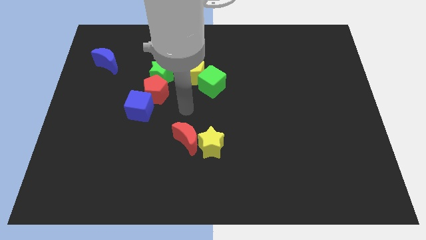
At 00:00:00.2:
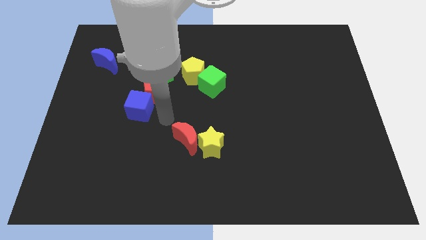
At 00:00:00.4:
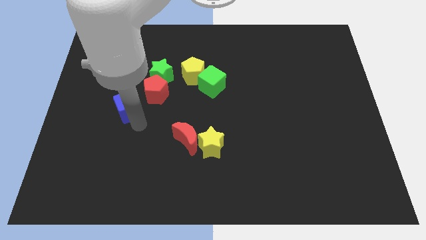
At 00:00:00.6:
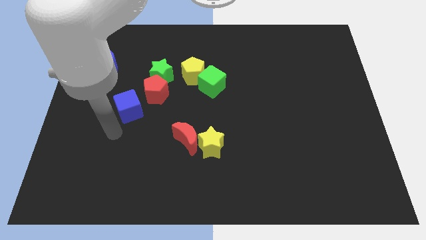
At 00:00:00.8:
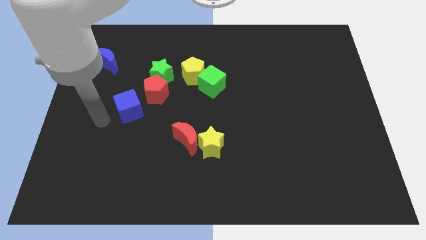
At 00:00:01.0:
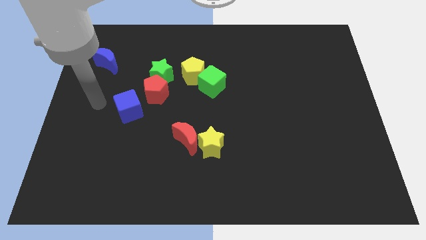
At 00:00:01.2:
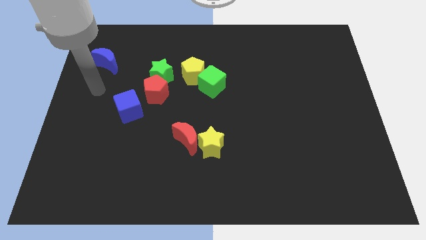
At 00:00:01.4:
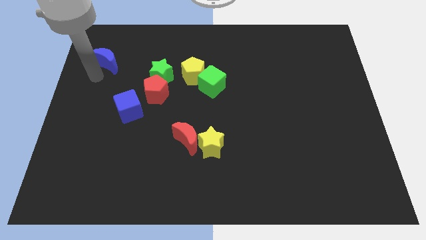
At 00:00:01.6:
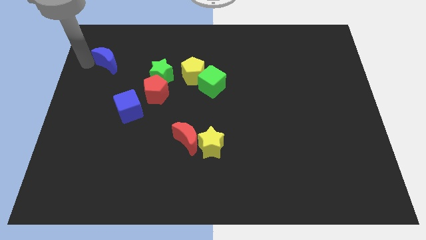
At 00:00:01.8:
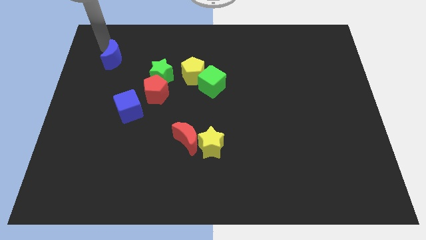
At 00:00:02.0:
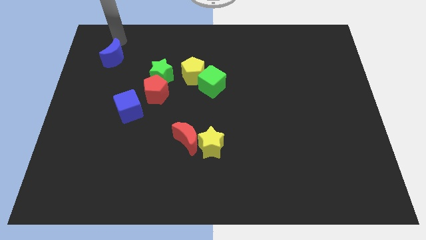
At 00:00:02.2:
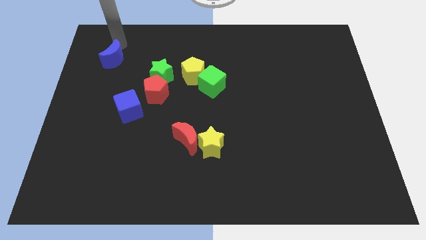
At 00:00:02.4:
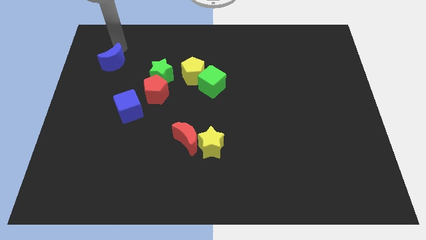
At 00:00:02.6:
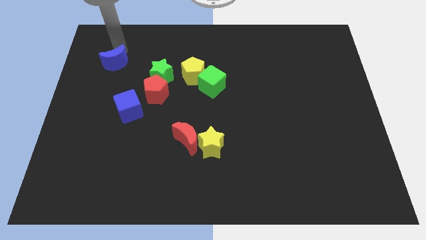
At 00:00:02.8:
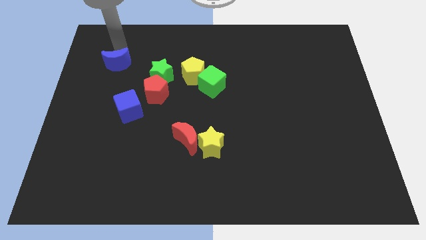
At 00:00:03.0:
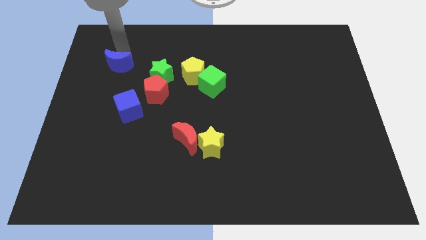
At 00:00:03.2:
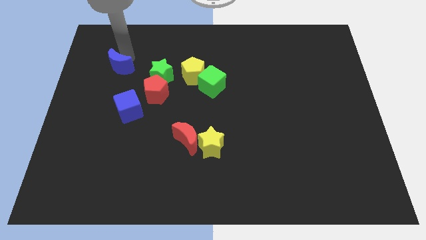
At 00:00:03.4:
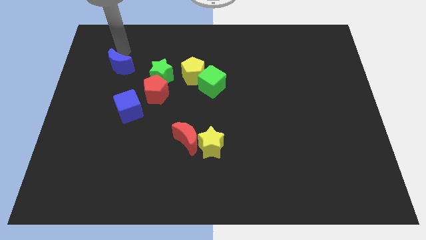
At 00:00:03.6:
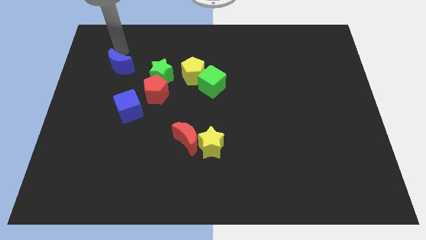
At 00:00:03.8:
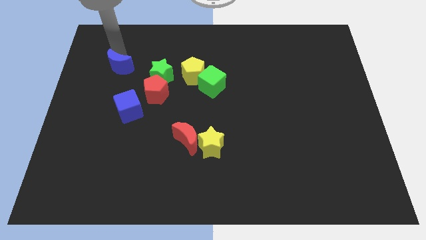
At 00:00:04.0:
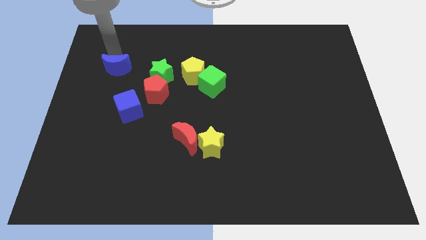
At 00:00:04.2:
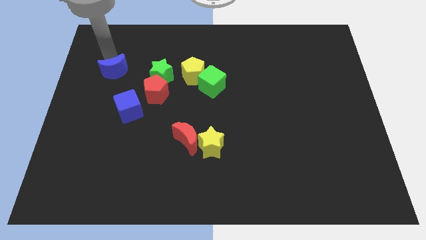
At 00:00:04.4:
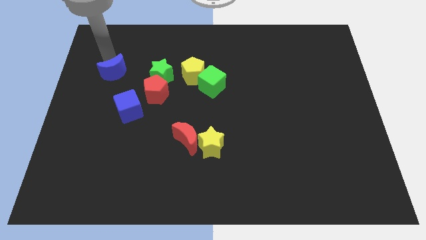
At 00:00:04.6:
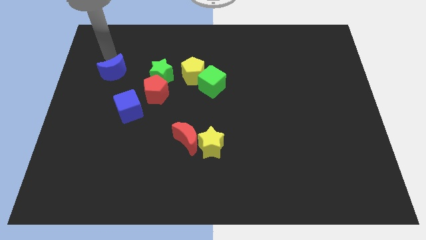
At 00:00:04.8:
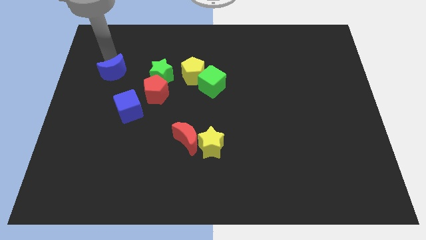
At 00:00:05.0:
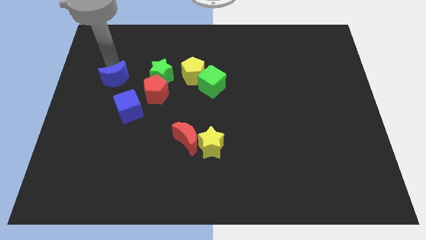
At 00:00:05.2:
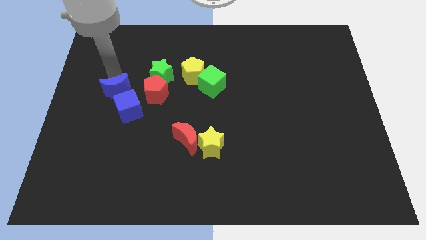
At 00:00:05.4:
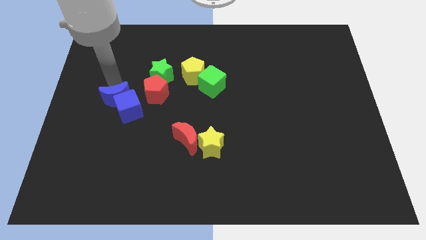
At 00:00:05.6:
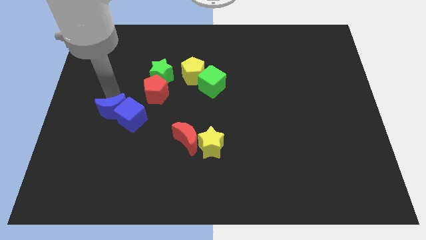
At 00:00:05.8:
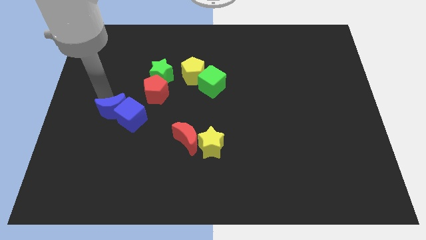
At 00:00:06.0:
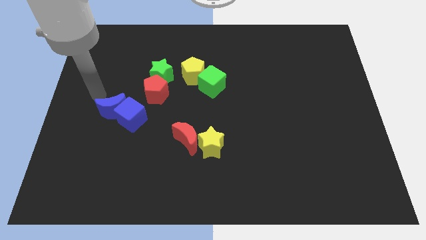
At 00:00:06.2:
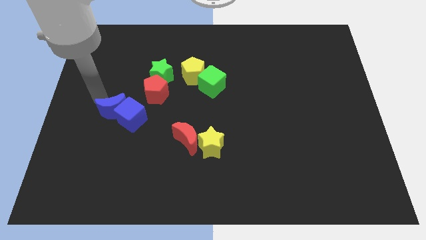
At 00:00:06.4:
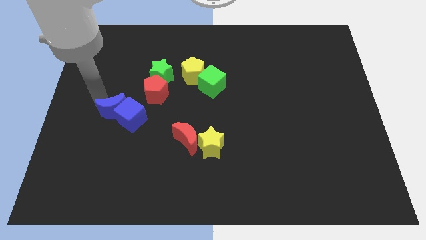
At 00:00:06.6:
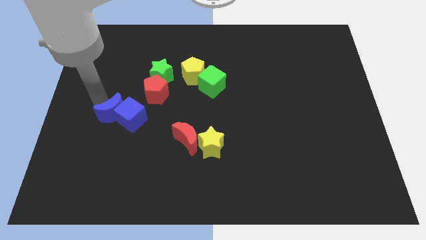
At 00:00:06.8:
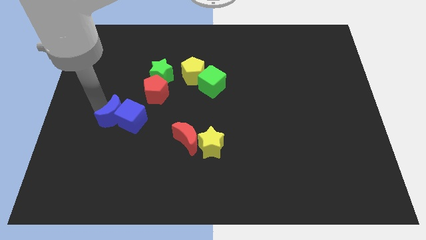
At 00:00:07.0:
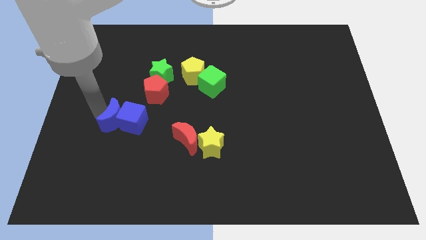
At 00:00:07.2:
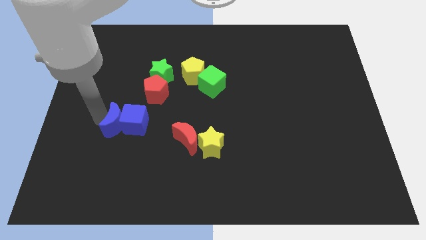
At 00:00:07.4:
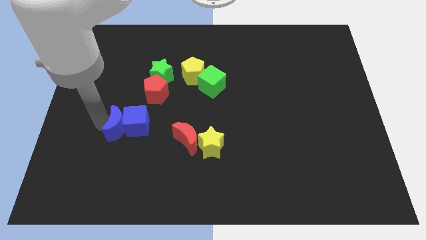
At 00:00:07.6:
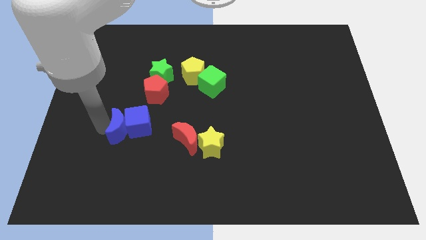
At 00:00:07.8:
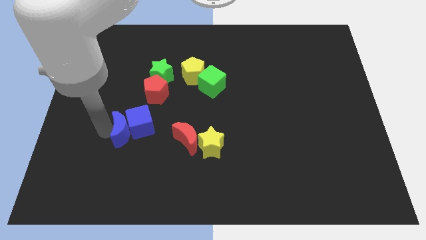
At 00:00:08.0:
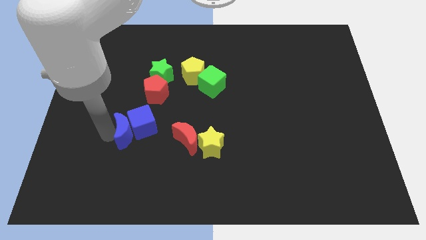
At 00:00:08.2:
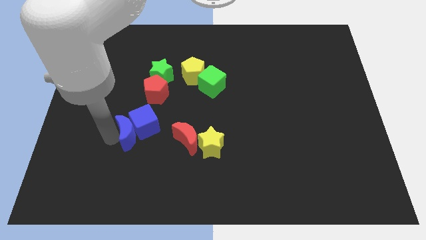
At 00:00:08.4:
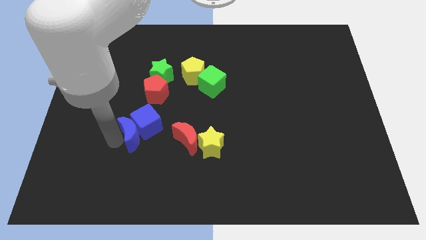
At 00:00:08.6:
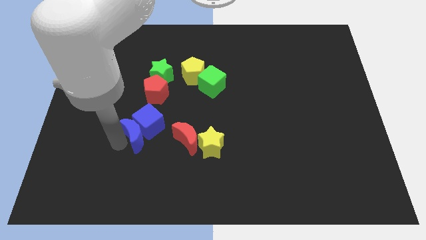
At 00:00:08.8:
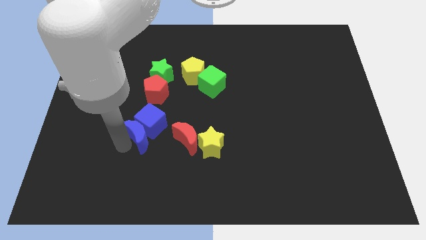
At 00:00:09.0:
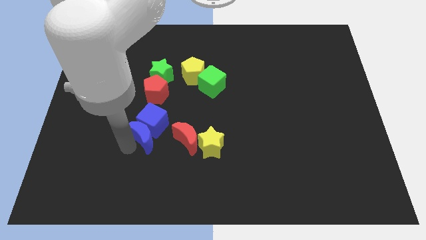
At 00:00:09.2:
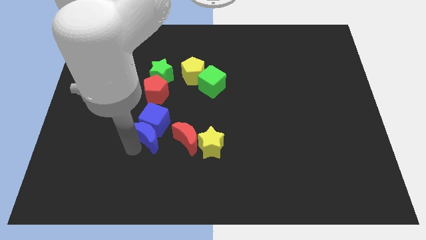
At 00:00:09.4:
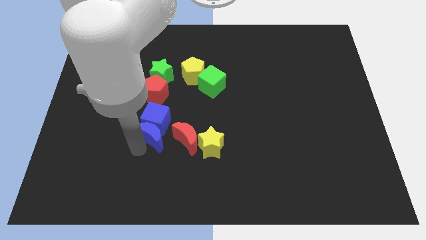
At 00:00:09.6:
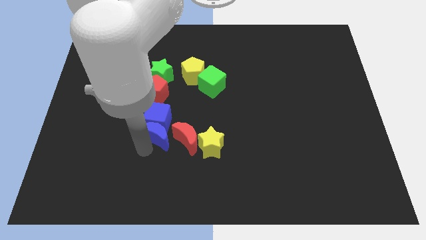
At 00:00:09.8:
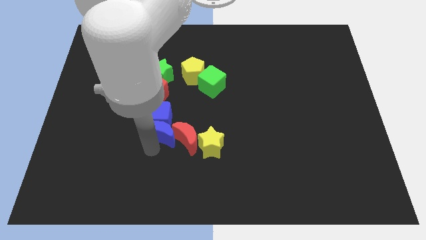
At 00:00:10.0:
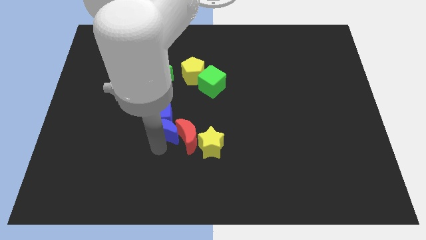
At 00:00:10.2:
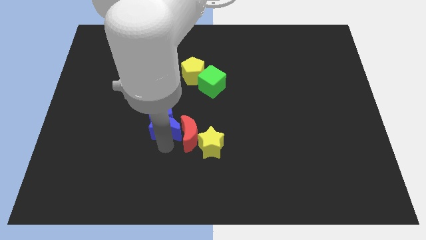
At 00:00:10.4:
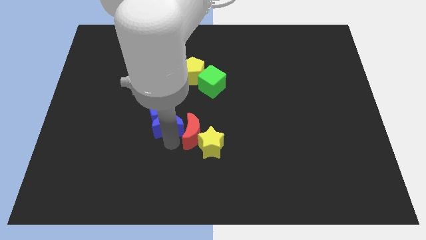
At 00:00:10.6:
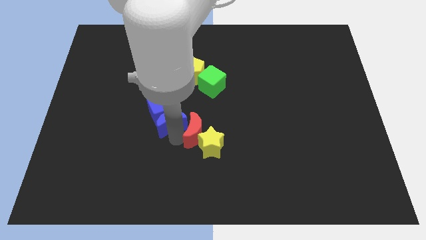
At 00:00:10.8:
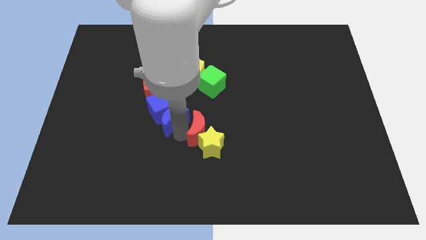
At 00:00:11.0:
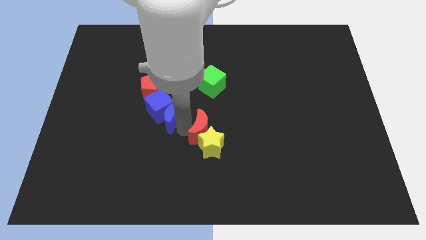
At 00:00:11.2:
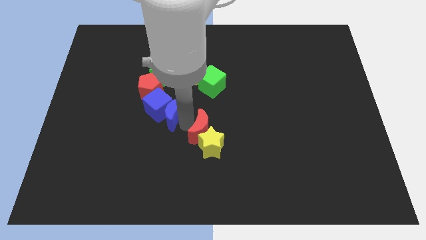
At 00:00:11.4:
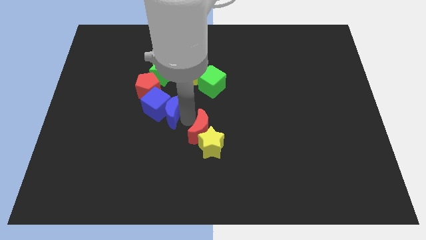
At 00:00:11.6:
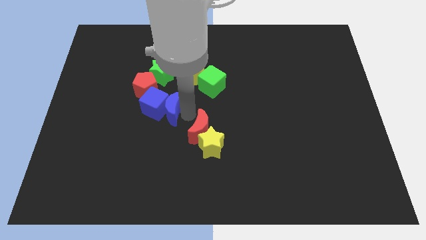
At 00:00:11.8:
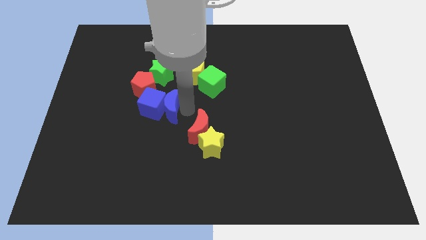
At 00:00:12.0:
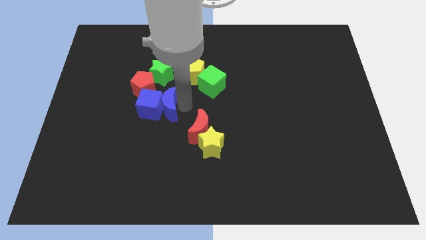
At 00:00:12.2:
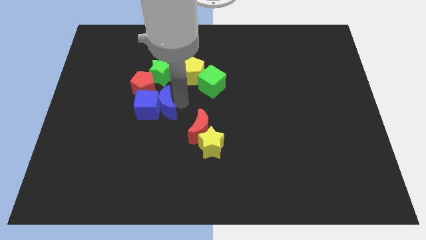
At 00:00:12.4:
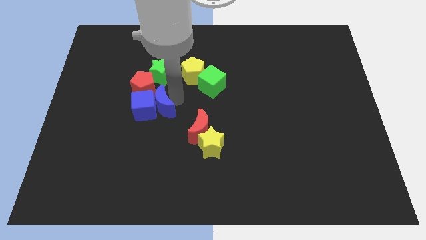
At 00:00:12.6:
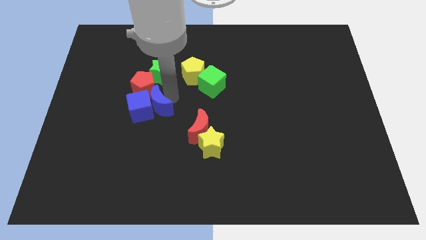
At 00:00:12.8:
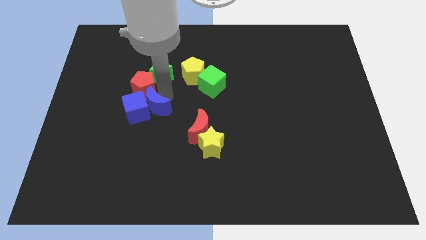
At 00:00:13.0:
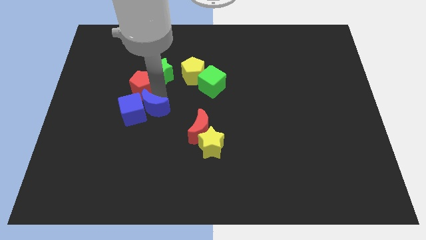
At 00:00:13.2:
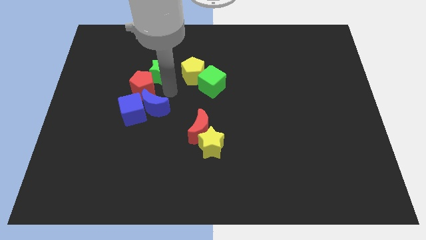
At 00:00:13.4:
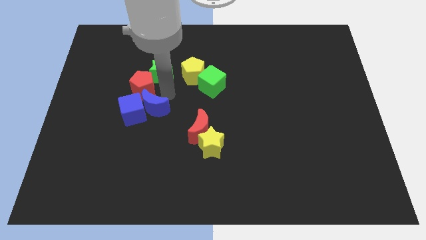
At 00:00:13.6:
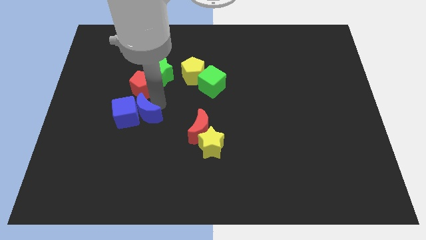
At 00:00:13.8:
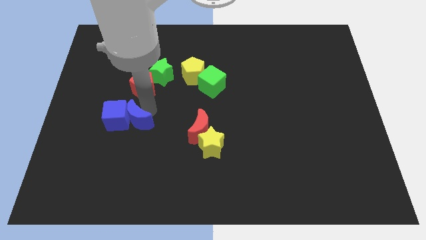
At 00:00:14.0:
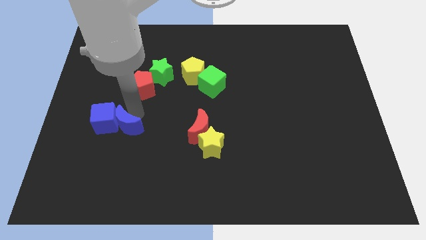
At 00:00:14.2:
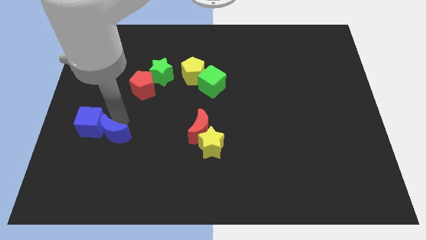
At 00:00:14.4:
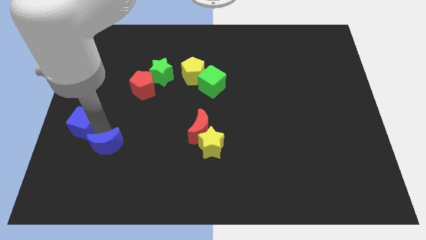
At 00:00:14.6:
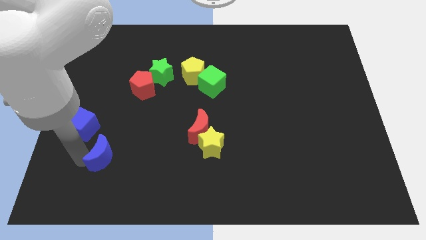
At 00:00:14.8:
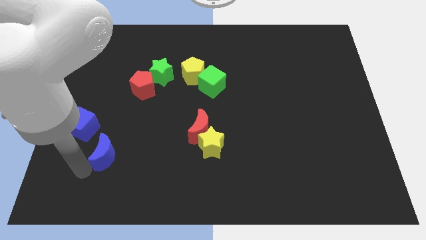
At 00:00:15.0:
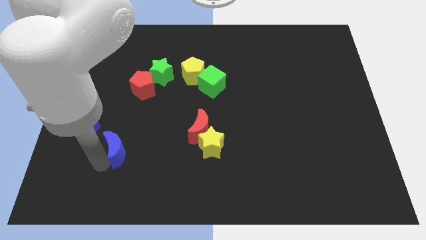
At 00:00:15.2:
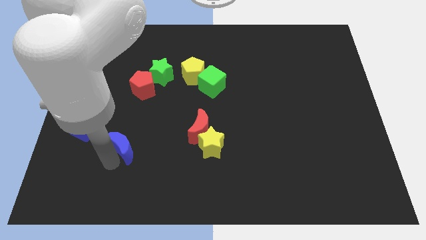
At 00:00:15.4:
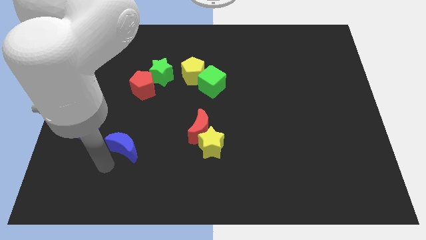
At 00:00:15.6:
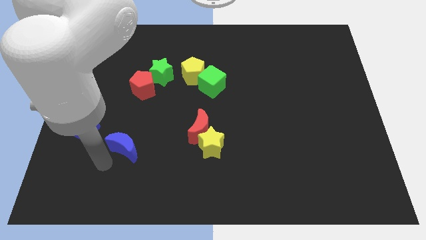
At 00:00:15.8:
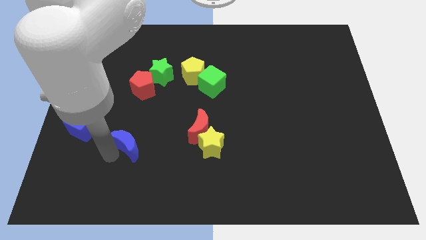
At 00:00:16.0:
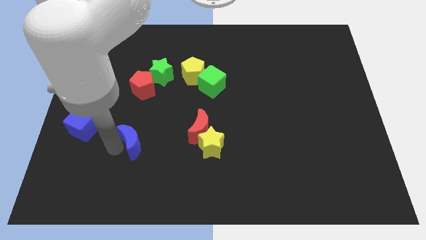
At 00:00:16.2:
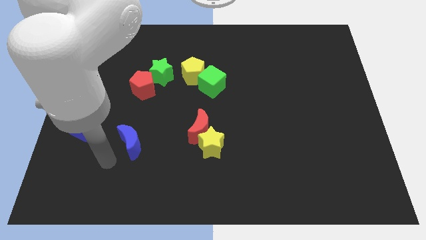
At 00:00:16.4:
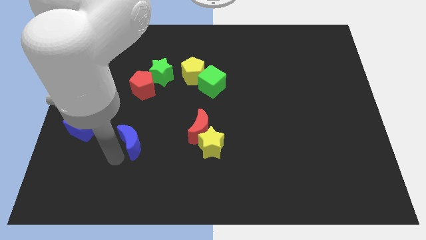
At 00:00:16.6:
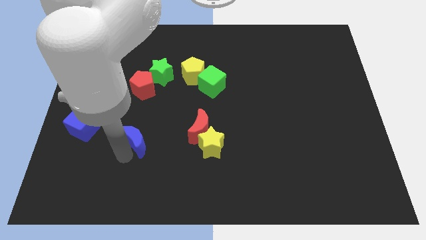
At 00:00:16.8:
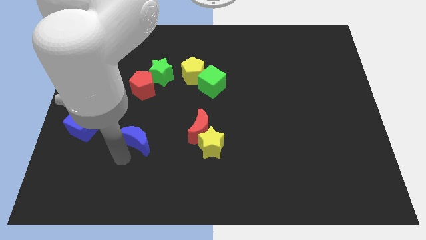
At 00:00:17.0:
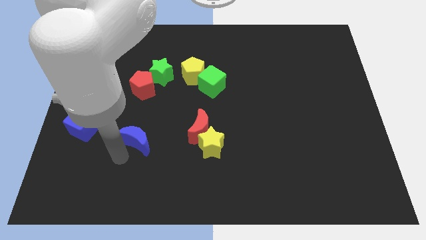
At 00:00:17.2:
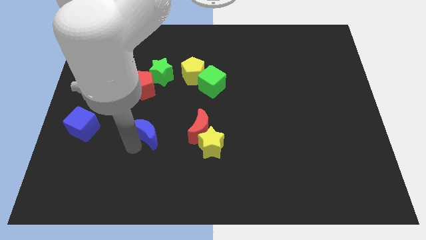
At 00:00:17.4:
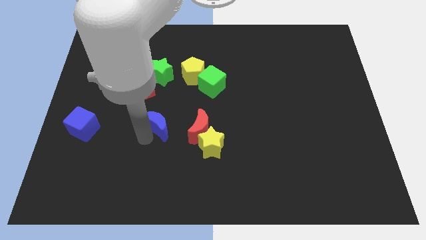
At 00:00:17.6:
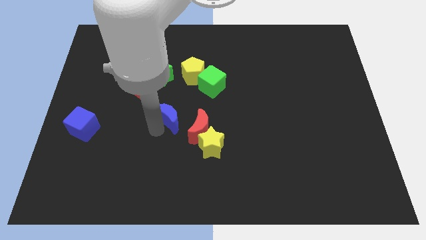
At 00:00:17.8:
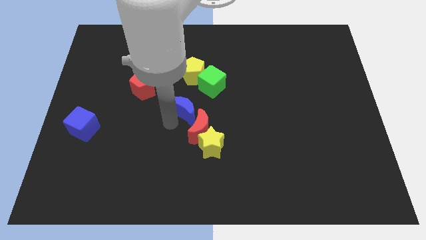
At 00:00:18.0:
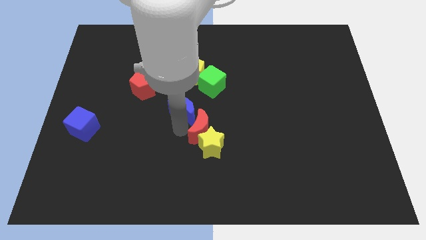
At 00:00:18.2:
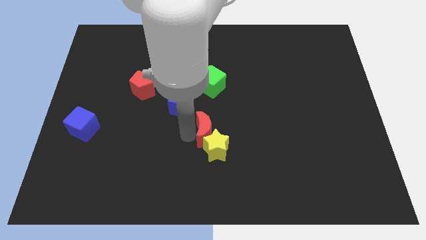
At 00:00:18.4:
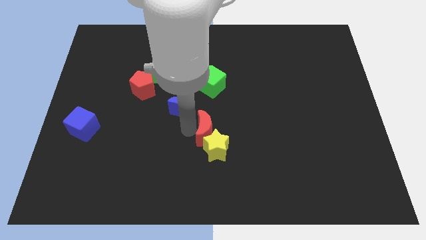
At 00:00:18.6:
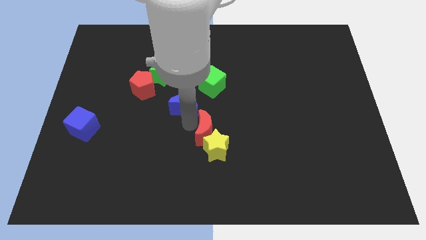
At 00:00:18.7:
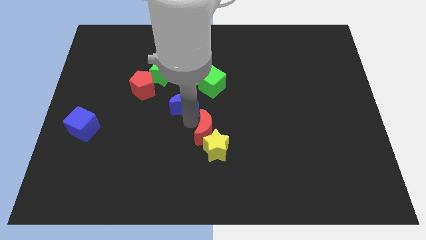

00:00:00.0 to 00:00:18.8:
push the blue moon diagonally down and to the right of the green star
